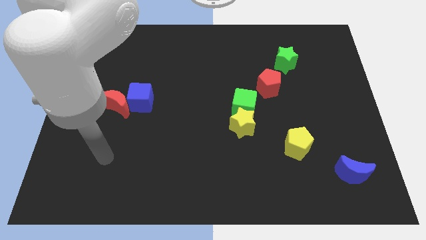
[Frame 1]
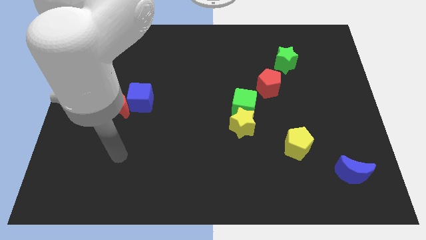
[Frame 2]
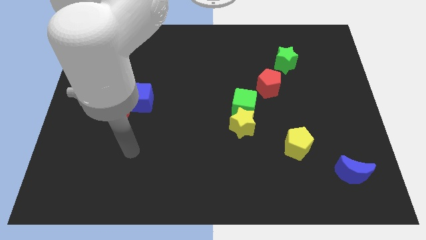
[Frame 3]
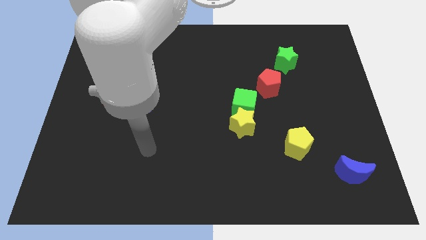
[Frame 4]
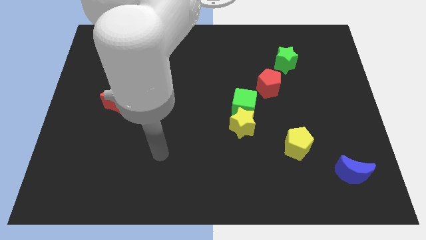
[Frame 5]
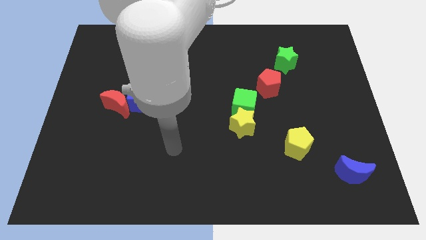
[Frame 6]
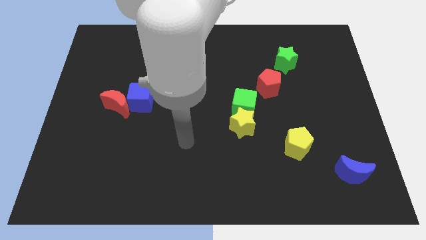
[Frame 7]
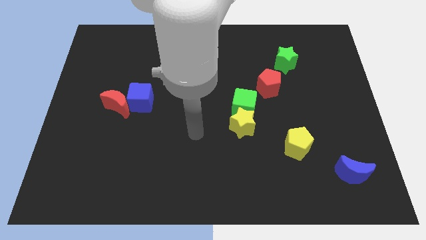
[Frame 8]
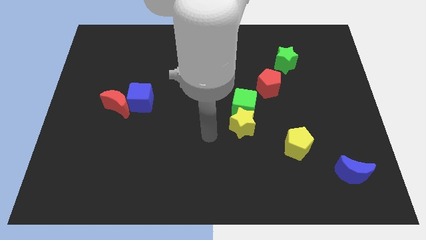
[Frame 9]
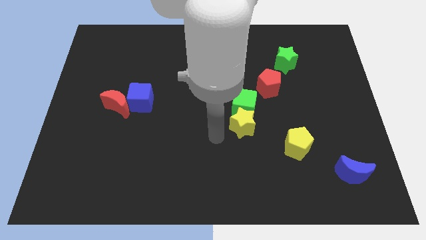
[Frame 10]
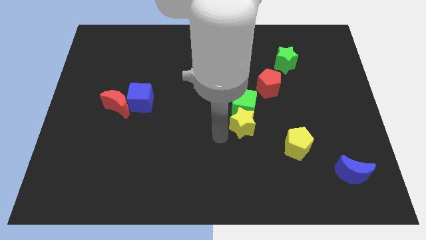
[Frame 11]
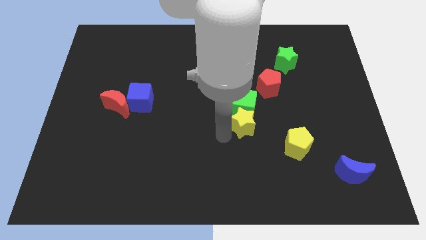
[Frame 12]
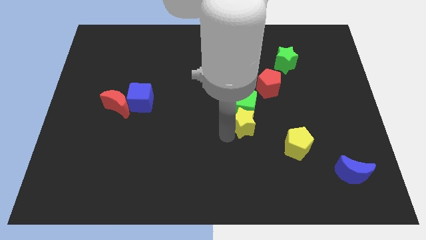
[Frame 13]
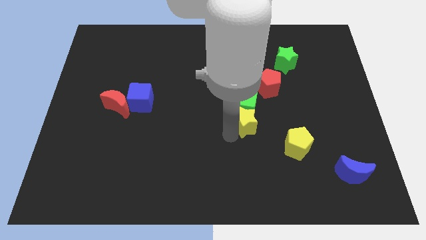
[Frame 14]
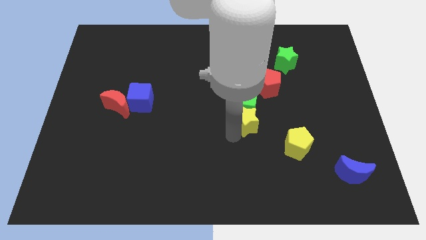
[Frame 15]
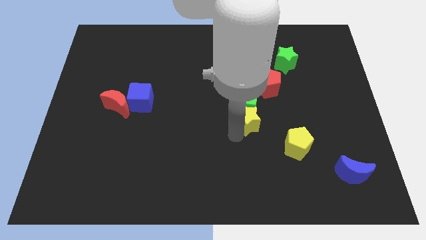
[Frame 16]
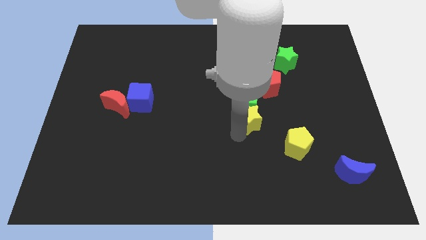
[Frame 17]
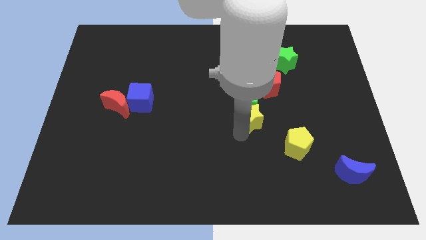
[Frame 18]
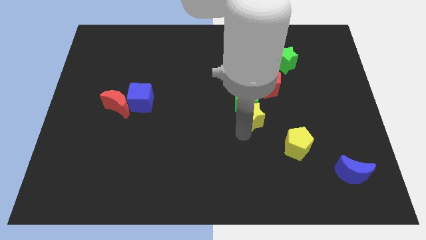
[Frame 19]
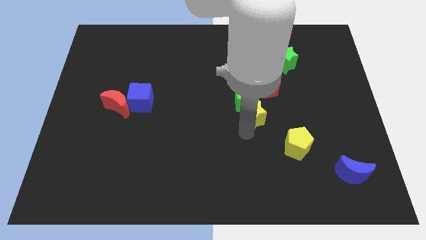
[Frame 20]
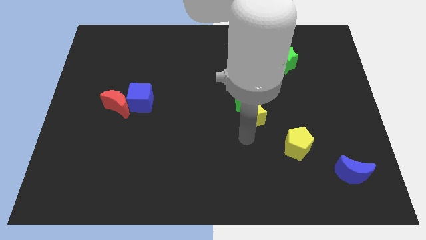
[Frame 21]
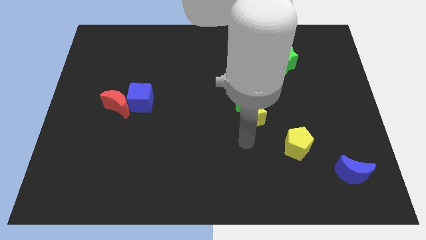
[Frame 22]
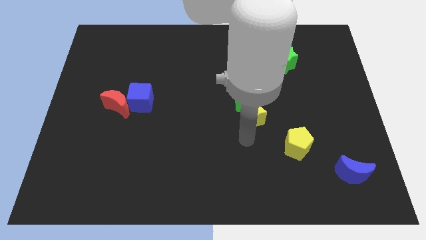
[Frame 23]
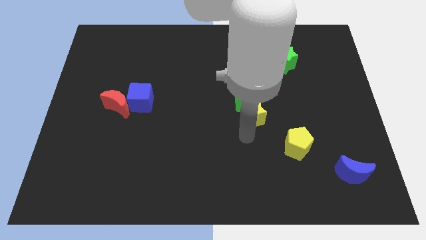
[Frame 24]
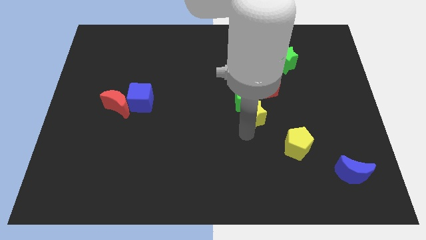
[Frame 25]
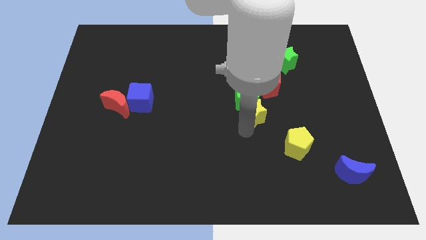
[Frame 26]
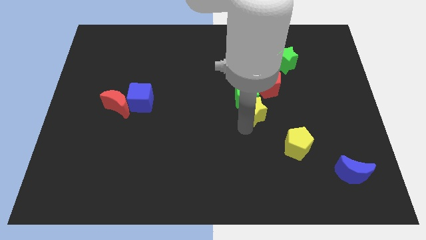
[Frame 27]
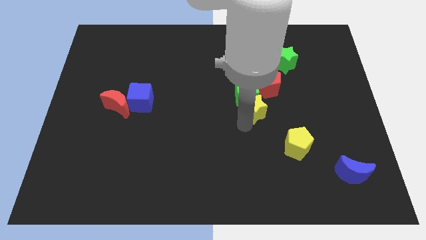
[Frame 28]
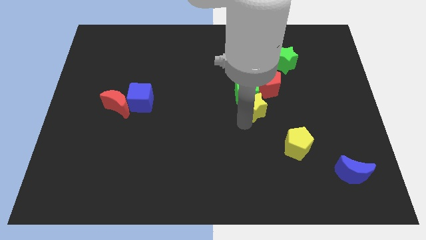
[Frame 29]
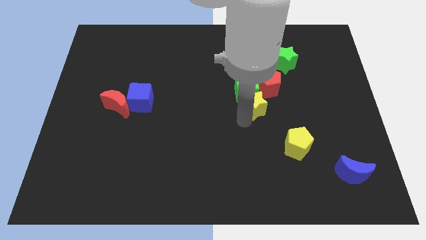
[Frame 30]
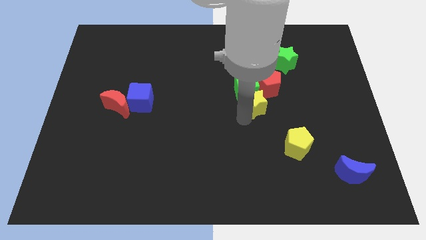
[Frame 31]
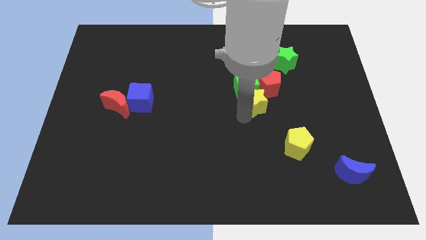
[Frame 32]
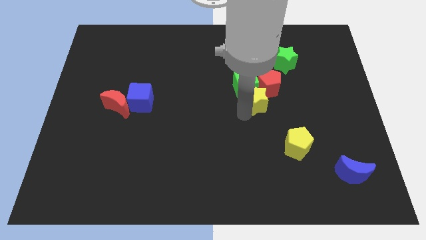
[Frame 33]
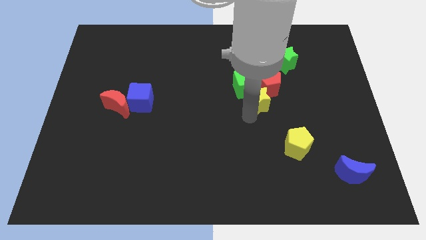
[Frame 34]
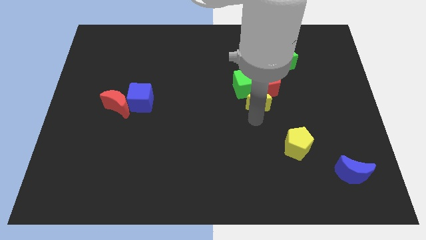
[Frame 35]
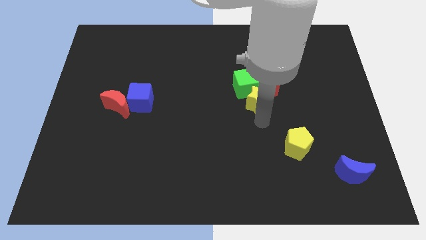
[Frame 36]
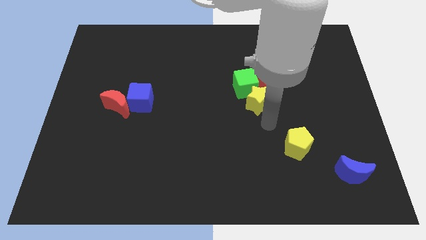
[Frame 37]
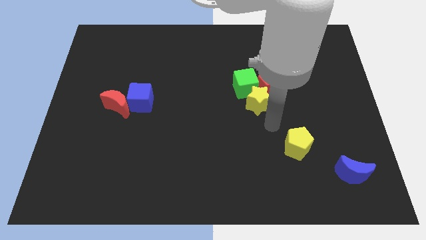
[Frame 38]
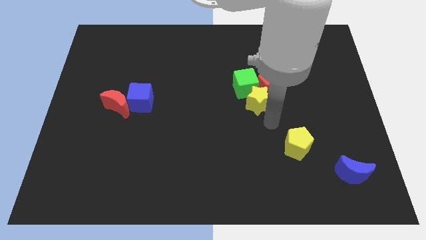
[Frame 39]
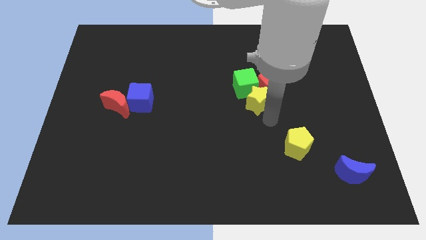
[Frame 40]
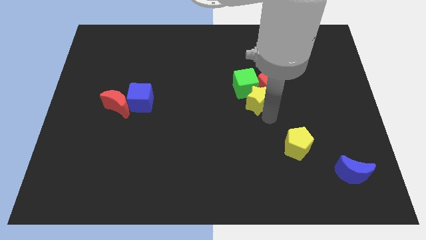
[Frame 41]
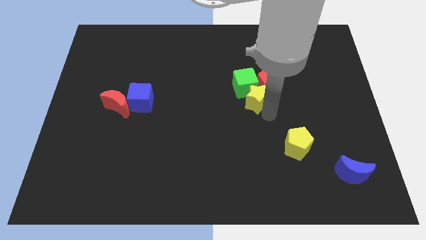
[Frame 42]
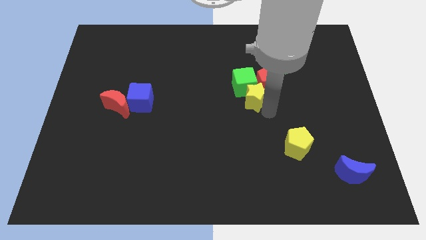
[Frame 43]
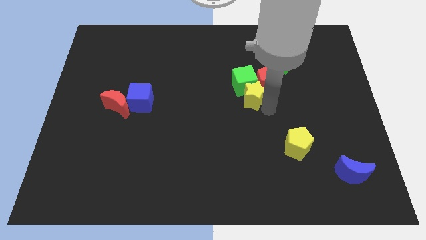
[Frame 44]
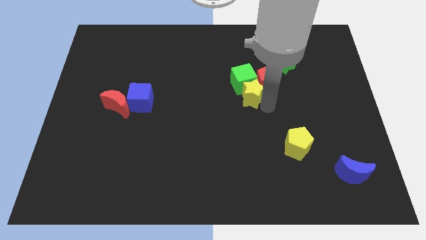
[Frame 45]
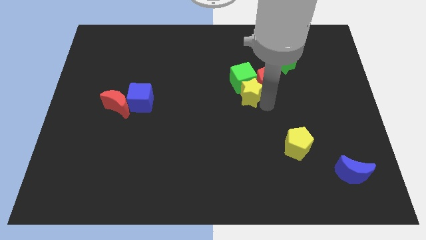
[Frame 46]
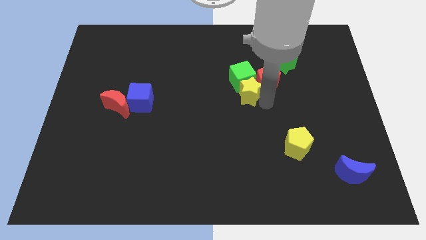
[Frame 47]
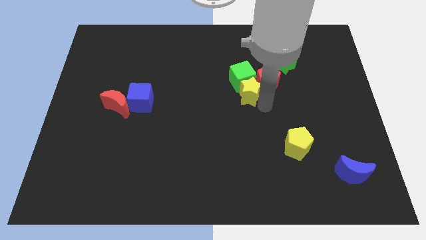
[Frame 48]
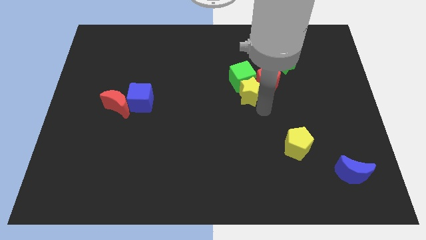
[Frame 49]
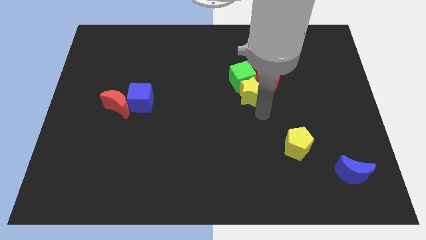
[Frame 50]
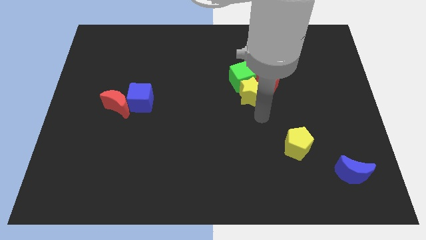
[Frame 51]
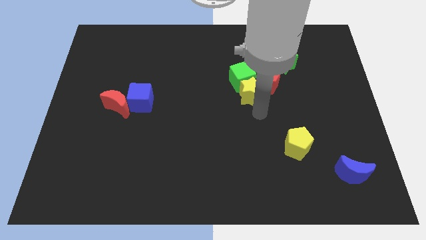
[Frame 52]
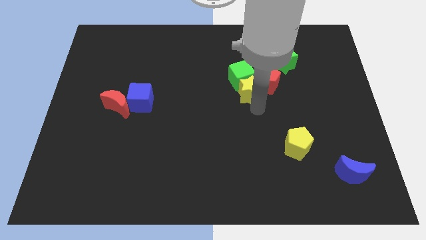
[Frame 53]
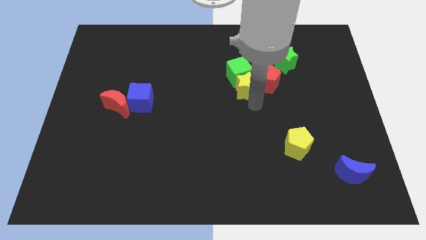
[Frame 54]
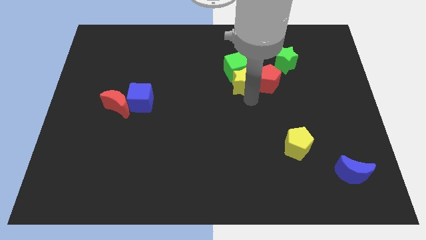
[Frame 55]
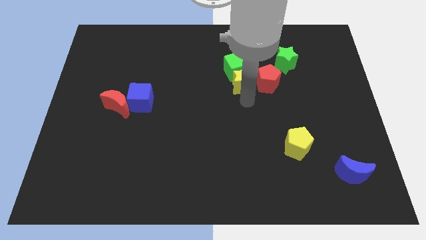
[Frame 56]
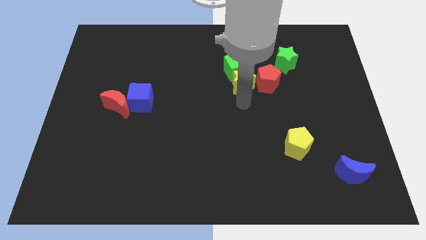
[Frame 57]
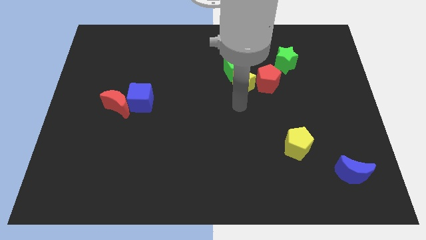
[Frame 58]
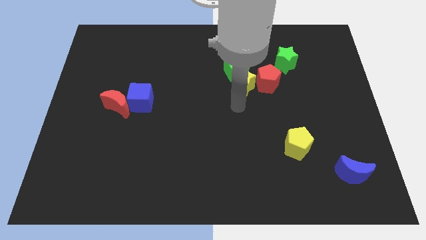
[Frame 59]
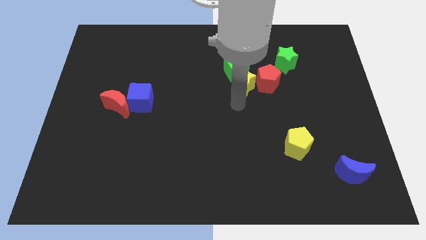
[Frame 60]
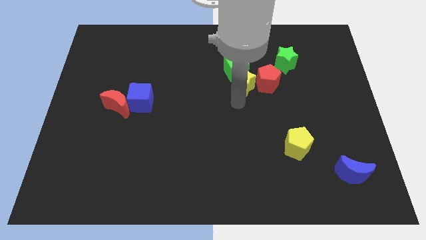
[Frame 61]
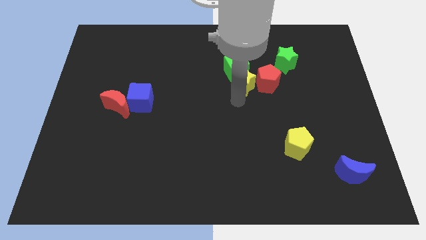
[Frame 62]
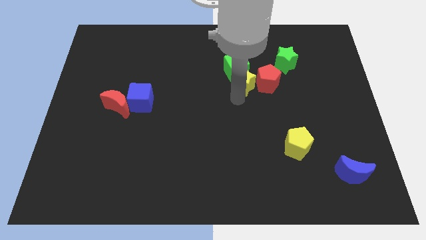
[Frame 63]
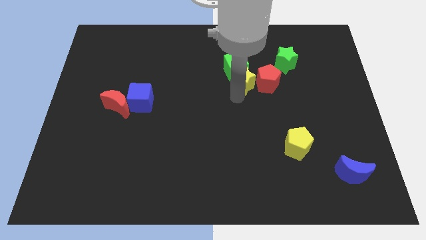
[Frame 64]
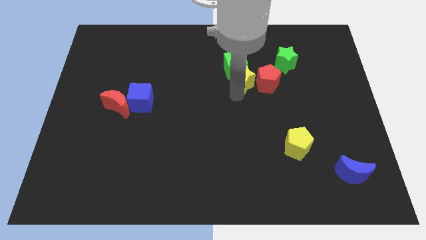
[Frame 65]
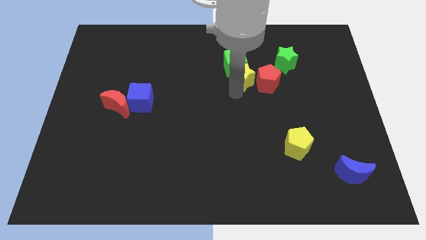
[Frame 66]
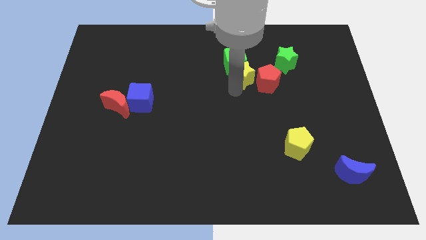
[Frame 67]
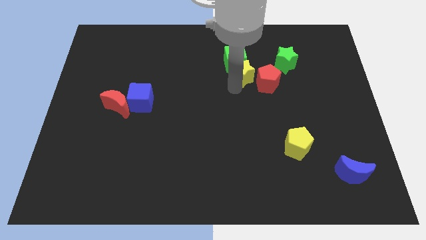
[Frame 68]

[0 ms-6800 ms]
push the yellow star to the left of the green star
